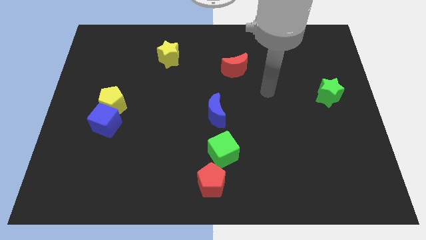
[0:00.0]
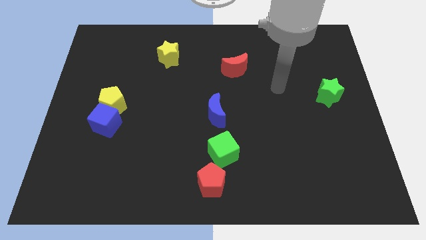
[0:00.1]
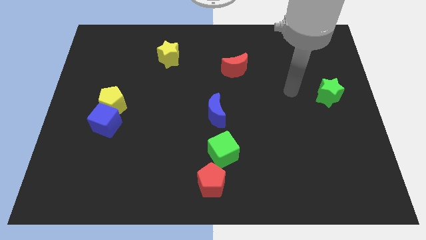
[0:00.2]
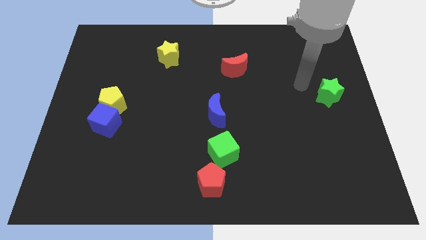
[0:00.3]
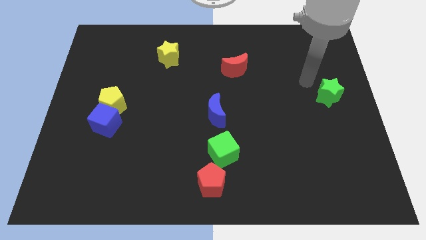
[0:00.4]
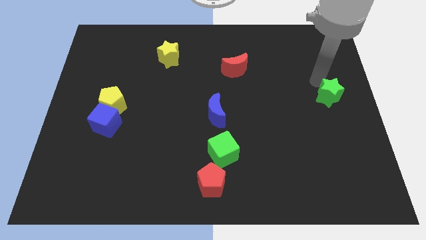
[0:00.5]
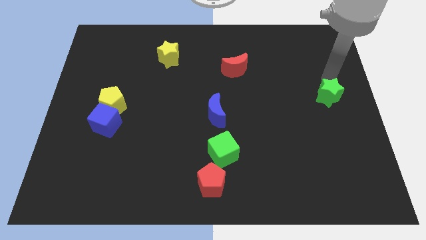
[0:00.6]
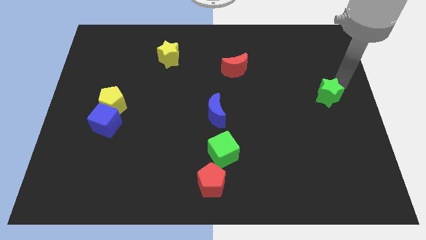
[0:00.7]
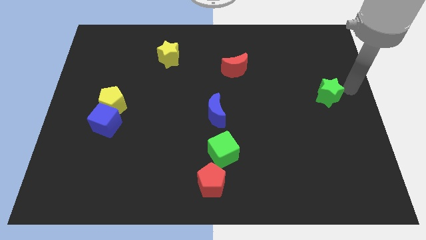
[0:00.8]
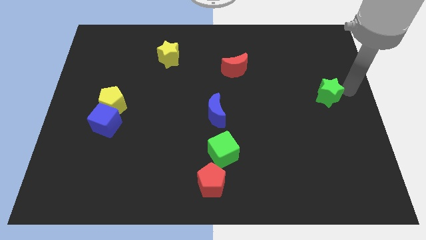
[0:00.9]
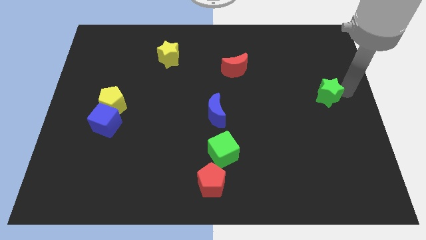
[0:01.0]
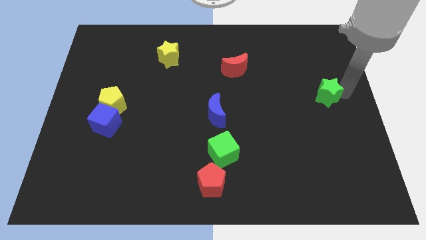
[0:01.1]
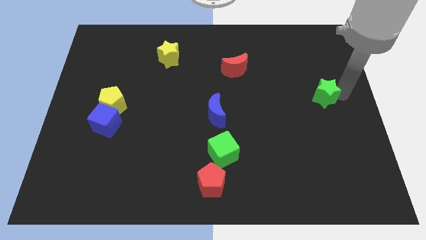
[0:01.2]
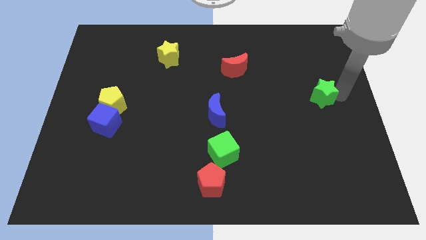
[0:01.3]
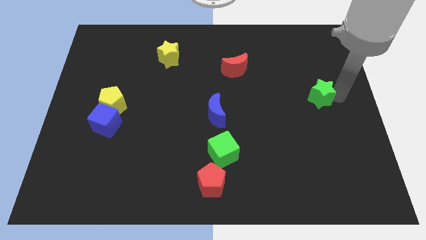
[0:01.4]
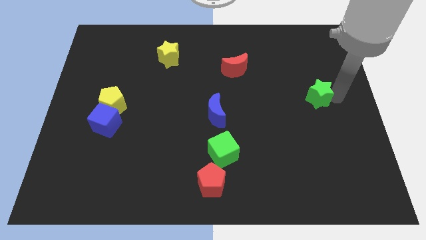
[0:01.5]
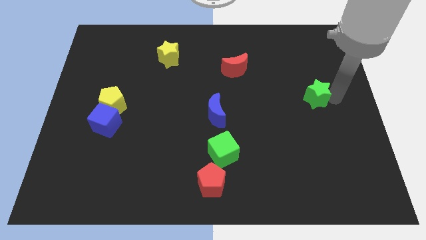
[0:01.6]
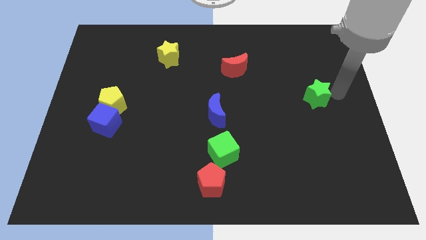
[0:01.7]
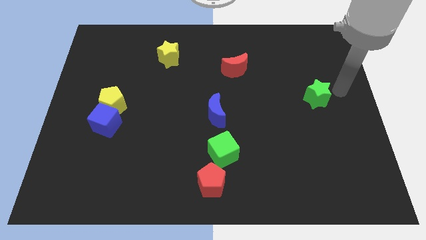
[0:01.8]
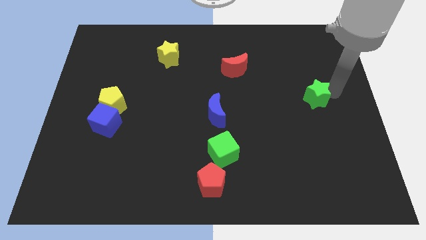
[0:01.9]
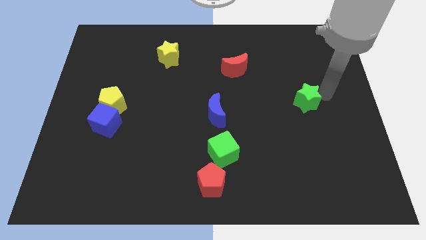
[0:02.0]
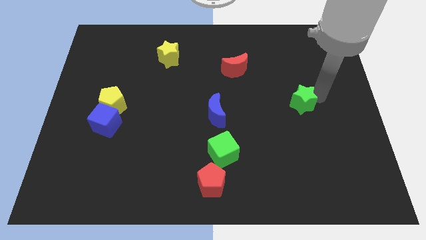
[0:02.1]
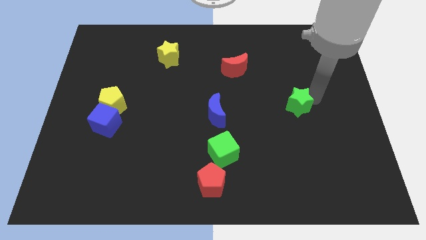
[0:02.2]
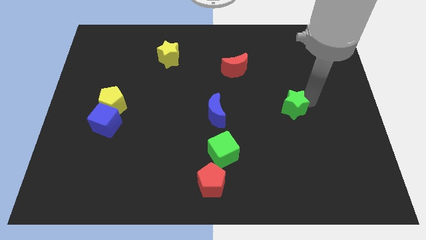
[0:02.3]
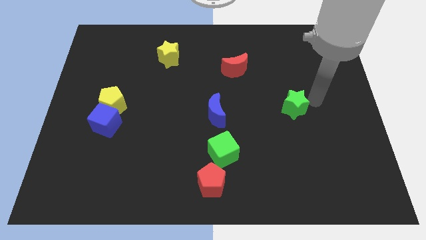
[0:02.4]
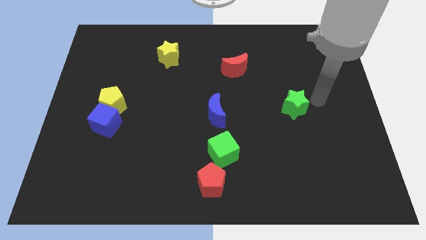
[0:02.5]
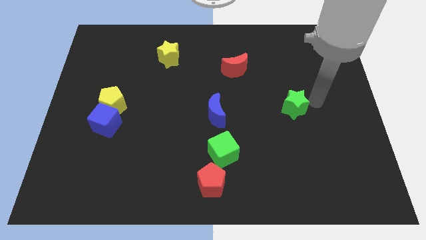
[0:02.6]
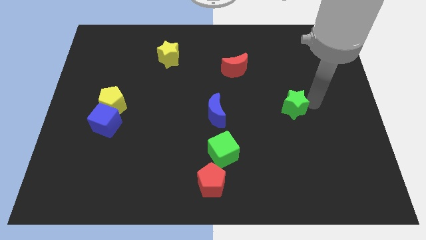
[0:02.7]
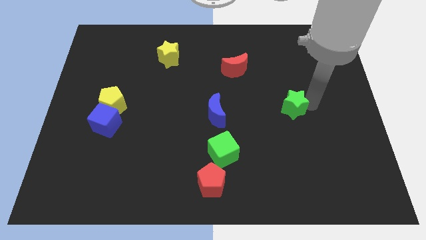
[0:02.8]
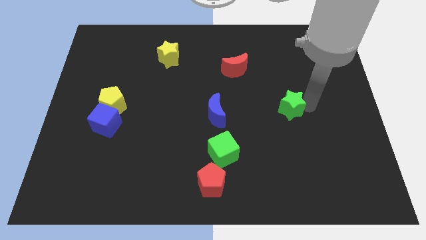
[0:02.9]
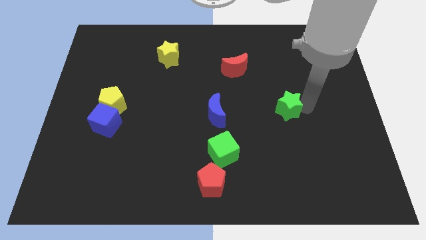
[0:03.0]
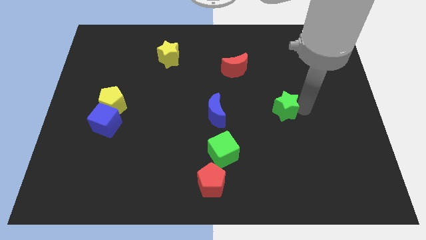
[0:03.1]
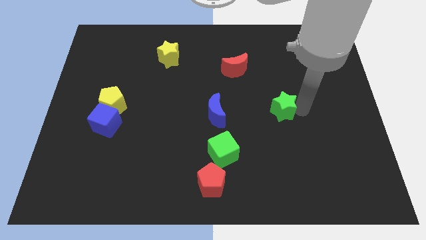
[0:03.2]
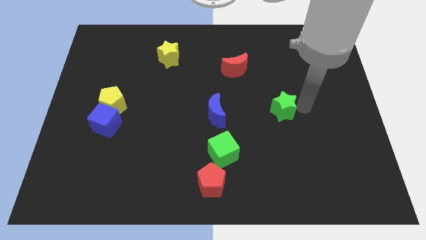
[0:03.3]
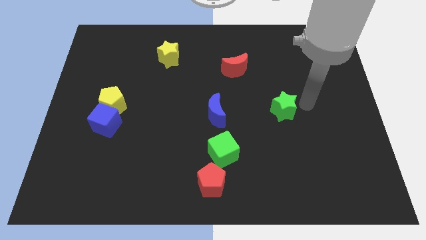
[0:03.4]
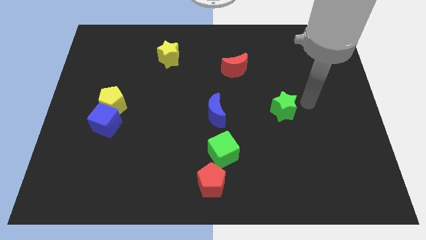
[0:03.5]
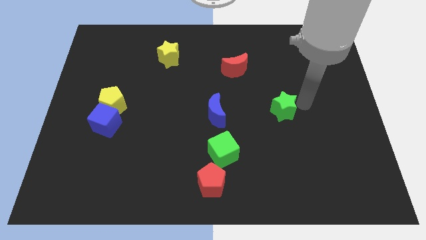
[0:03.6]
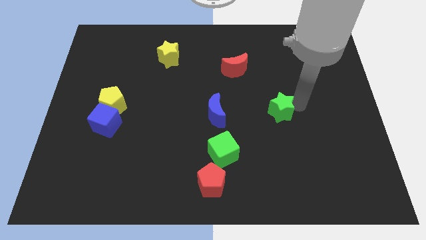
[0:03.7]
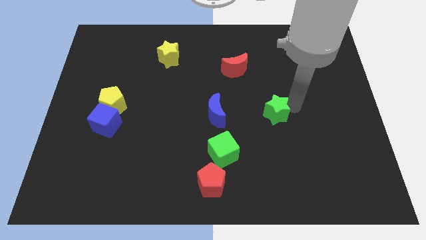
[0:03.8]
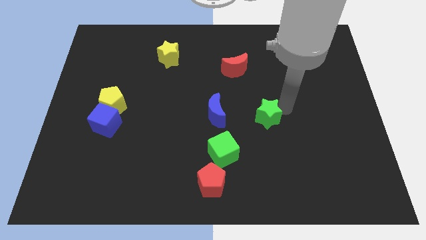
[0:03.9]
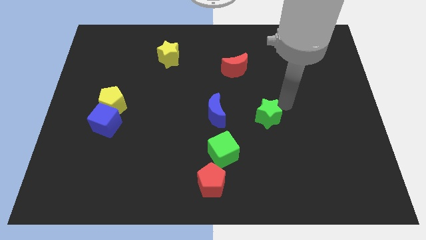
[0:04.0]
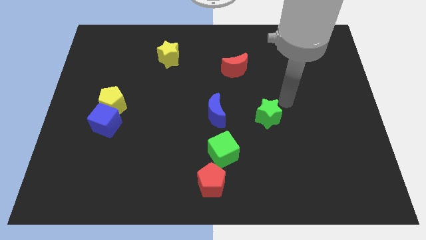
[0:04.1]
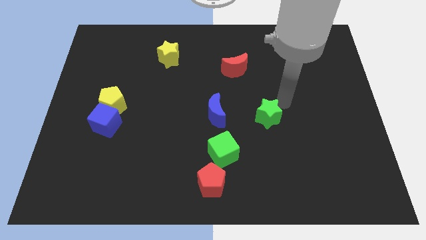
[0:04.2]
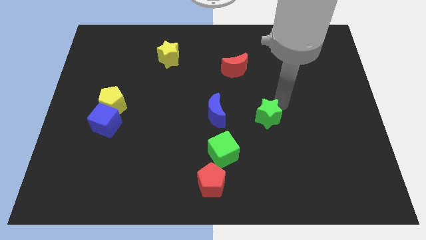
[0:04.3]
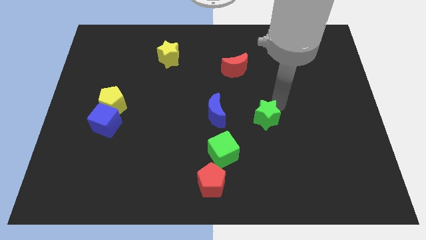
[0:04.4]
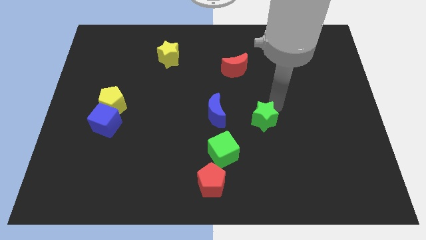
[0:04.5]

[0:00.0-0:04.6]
put the green star diagonally up and to the right of the green cube

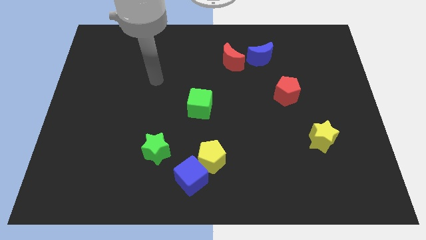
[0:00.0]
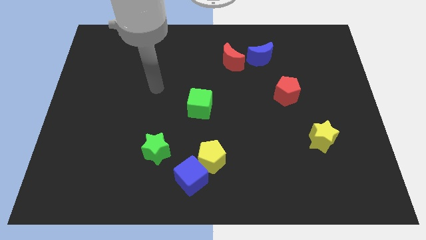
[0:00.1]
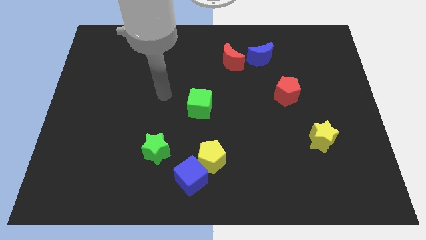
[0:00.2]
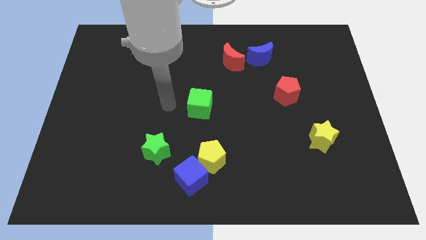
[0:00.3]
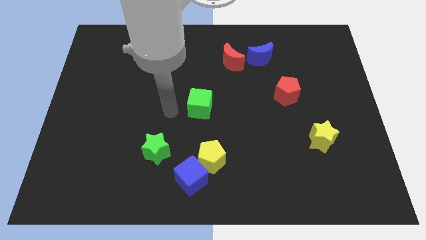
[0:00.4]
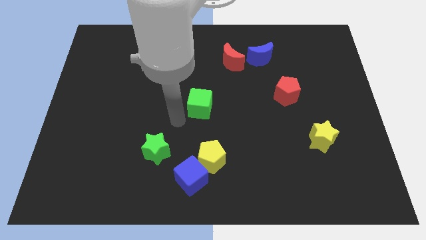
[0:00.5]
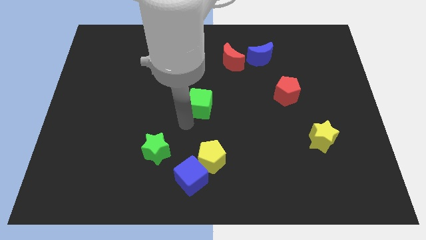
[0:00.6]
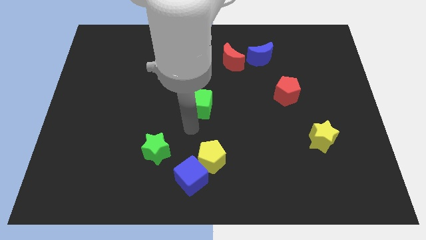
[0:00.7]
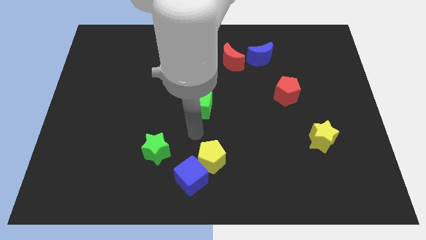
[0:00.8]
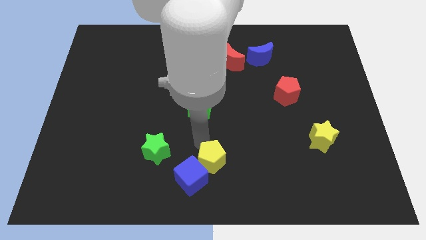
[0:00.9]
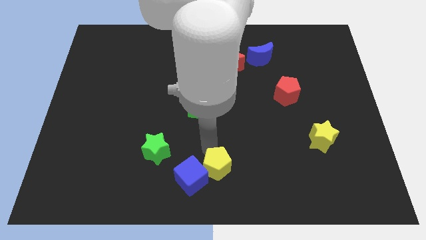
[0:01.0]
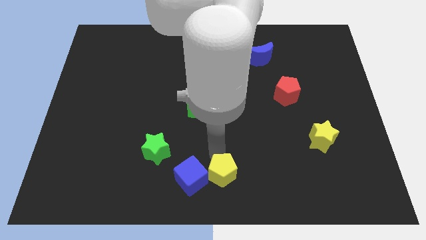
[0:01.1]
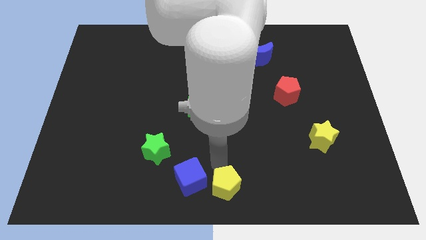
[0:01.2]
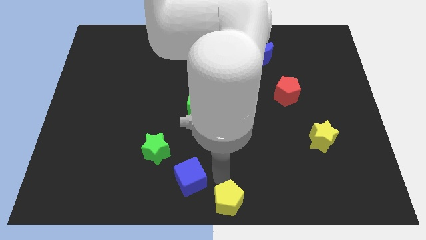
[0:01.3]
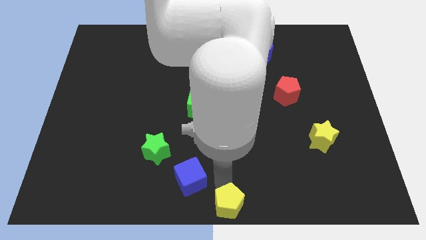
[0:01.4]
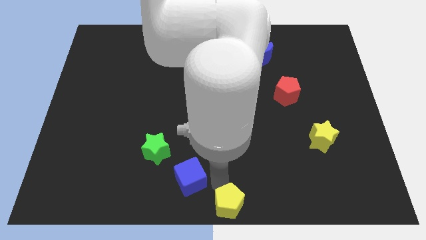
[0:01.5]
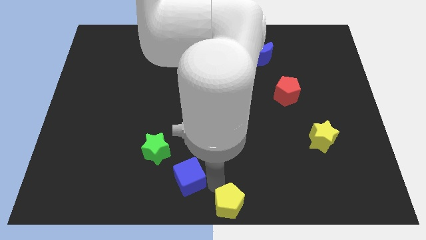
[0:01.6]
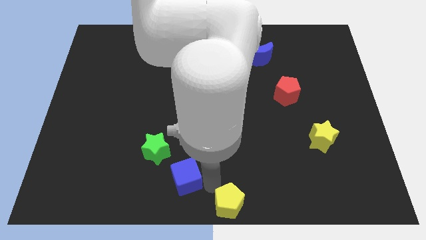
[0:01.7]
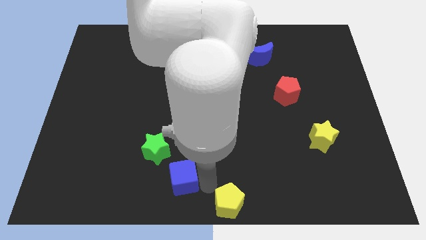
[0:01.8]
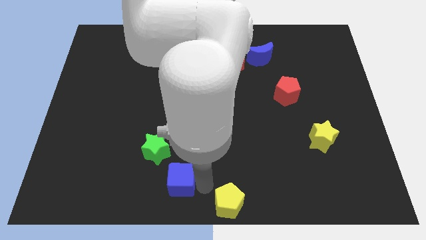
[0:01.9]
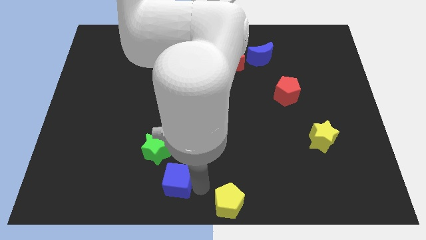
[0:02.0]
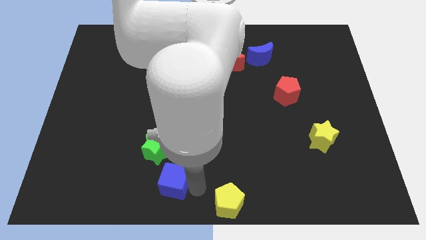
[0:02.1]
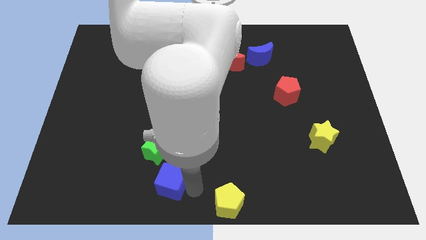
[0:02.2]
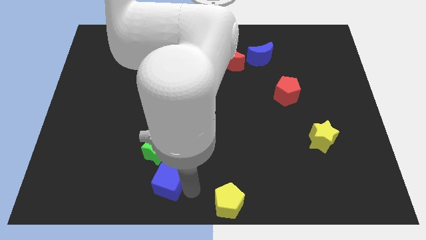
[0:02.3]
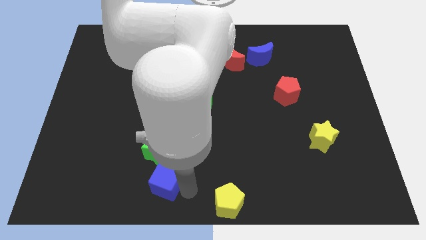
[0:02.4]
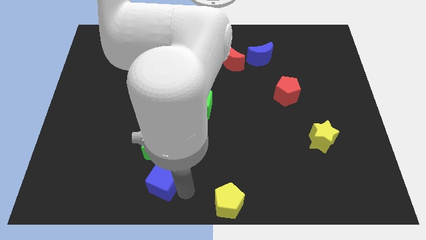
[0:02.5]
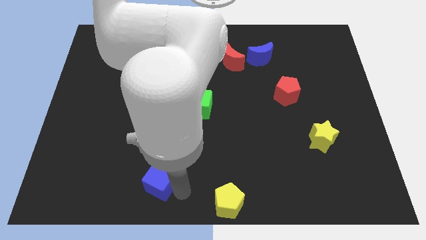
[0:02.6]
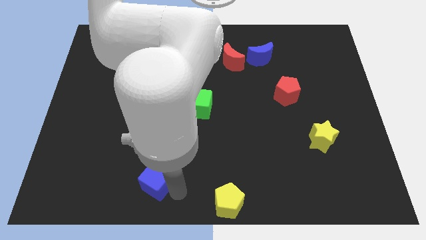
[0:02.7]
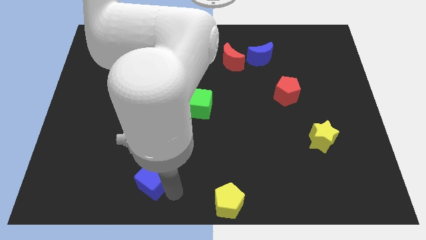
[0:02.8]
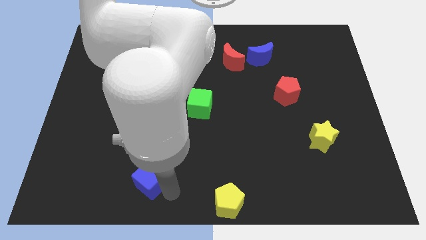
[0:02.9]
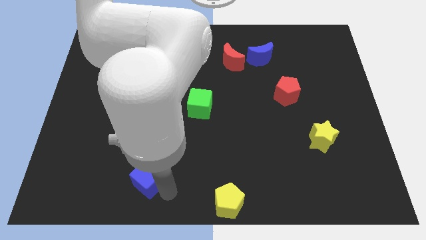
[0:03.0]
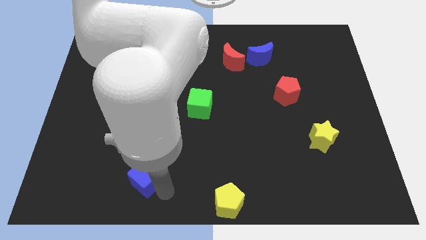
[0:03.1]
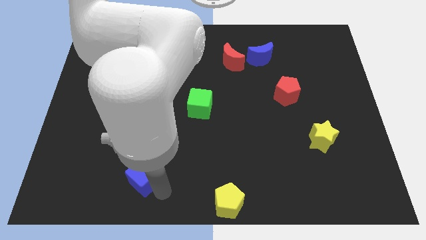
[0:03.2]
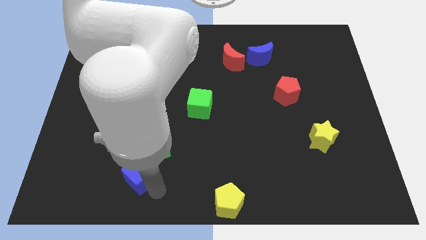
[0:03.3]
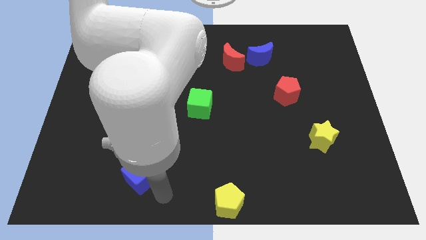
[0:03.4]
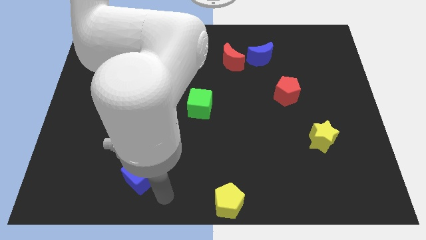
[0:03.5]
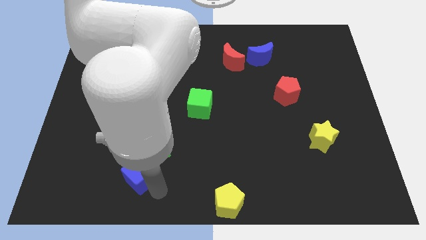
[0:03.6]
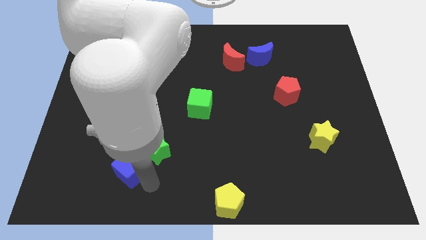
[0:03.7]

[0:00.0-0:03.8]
push the blue cube just left of the green star
